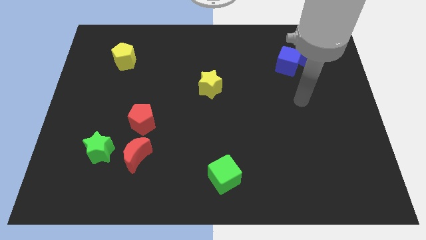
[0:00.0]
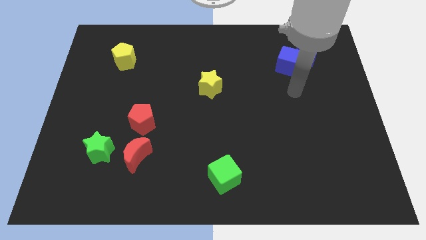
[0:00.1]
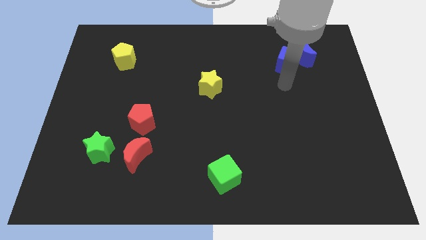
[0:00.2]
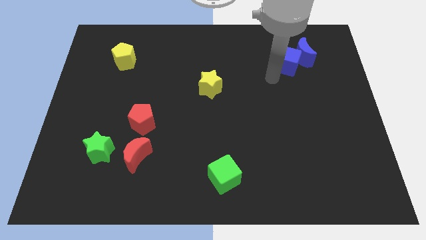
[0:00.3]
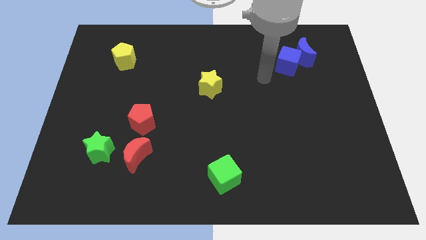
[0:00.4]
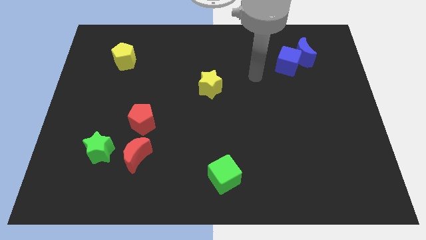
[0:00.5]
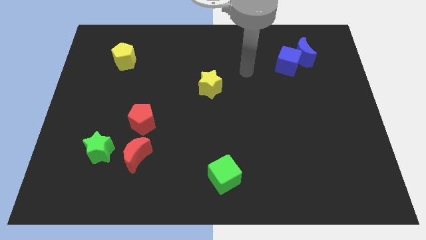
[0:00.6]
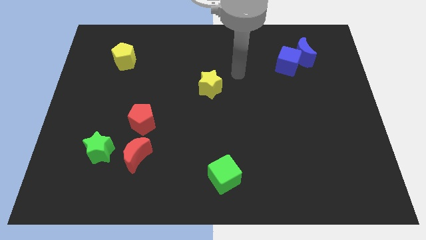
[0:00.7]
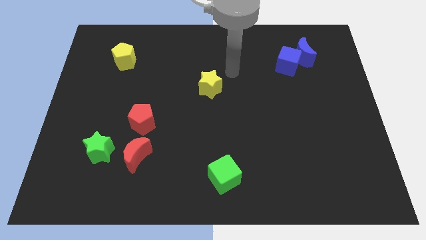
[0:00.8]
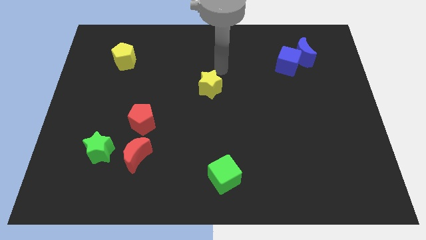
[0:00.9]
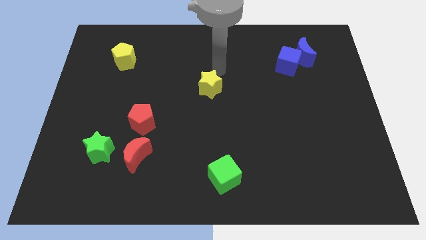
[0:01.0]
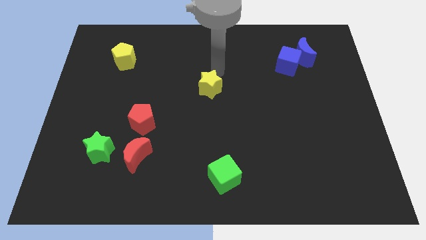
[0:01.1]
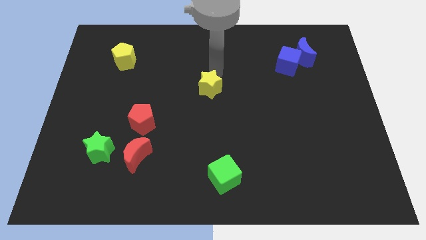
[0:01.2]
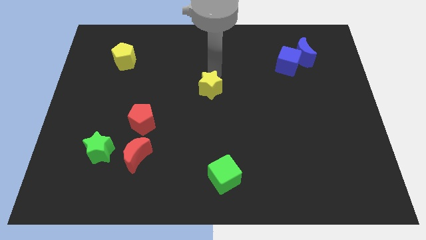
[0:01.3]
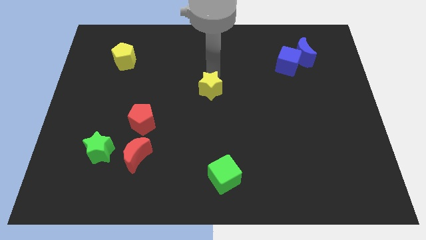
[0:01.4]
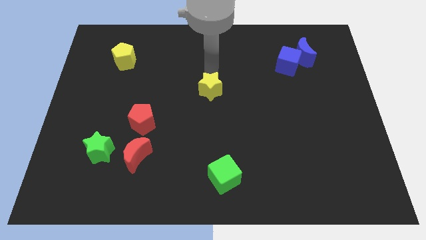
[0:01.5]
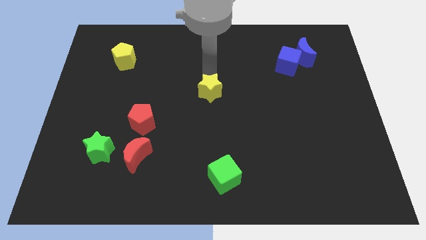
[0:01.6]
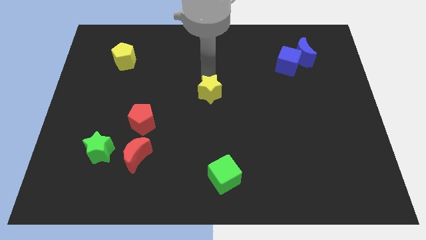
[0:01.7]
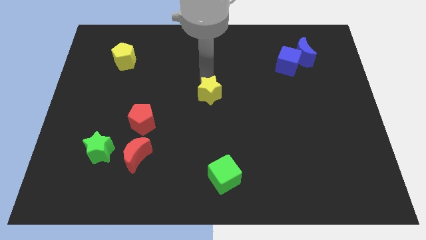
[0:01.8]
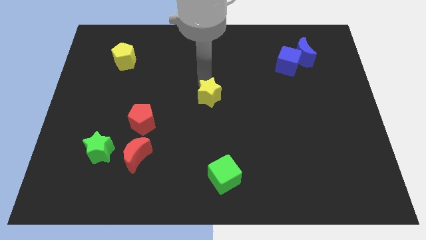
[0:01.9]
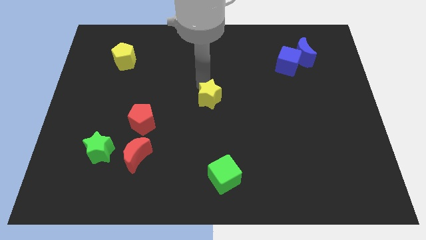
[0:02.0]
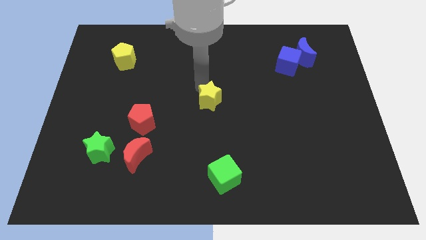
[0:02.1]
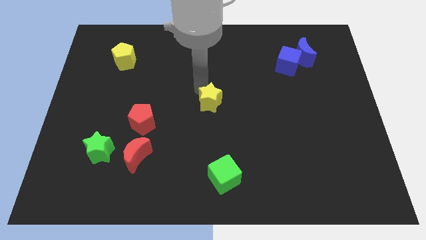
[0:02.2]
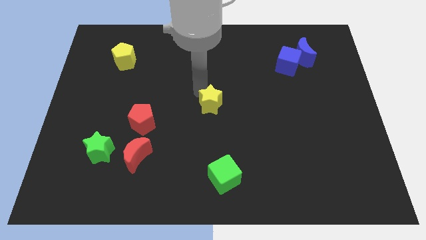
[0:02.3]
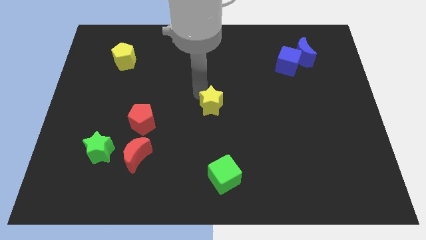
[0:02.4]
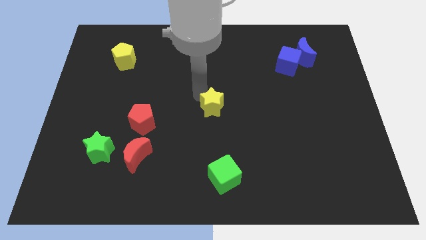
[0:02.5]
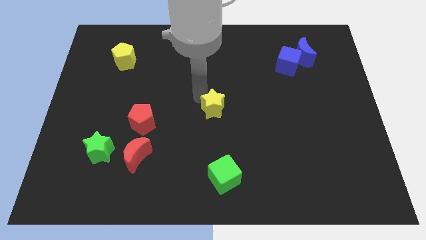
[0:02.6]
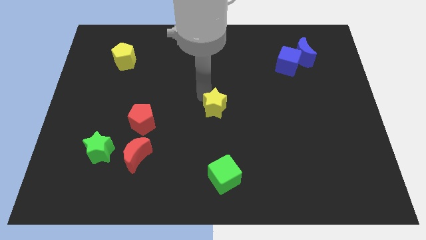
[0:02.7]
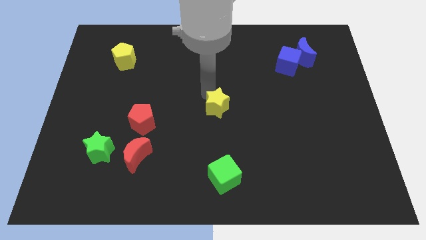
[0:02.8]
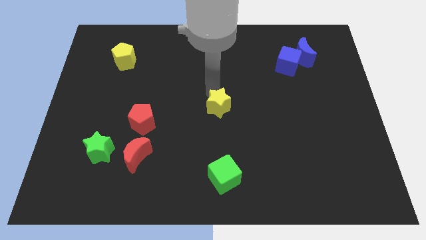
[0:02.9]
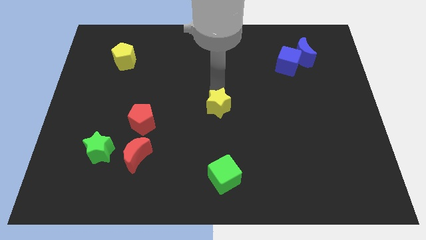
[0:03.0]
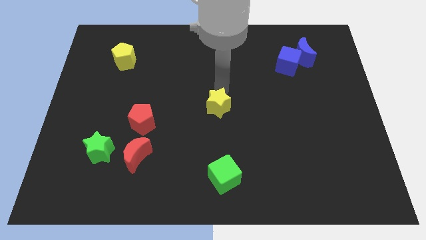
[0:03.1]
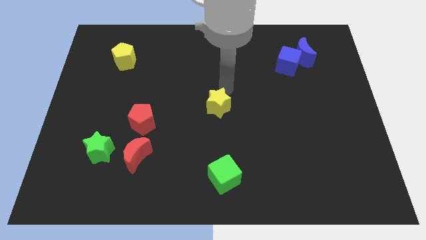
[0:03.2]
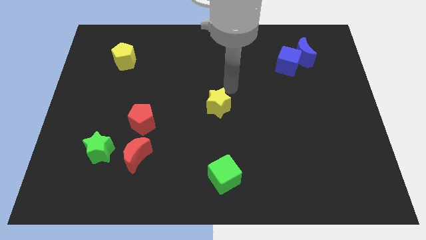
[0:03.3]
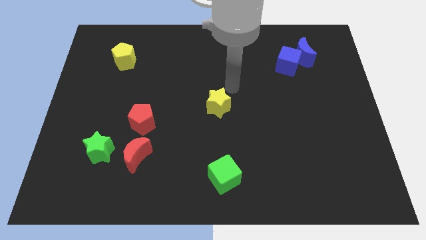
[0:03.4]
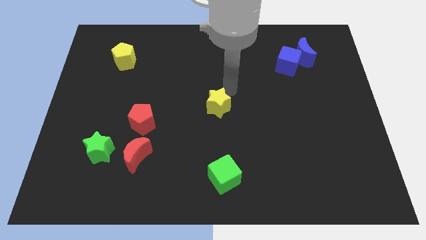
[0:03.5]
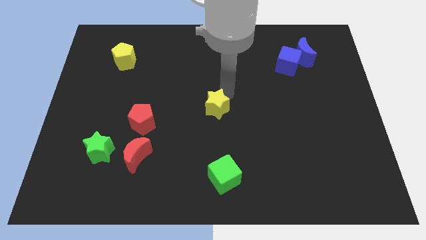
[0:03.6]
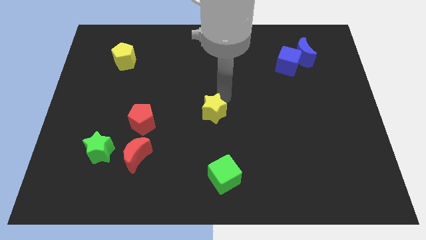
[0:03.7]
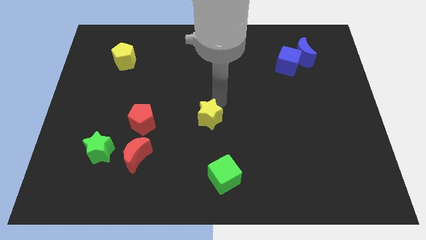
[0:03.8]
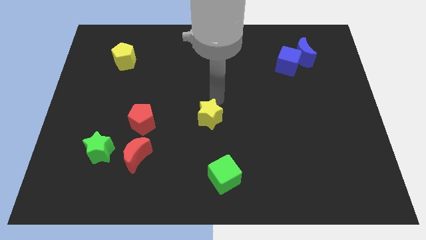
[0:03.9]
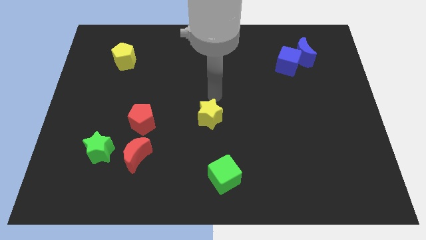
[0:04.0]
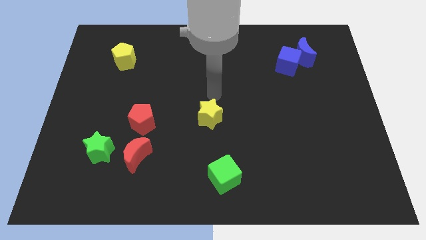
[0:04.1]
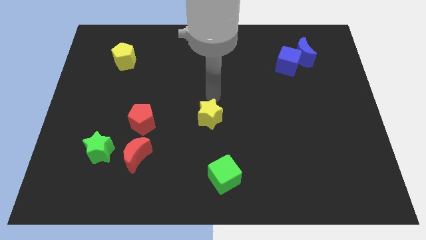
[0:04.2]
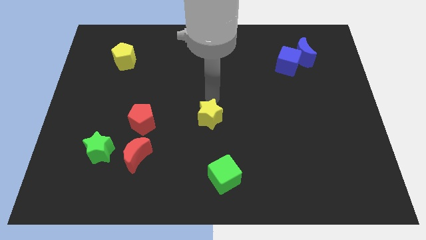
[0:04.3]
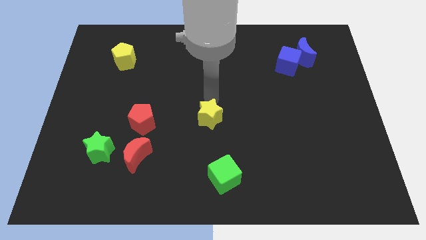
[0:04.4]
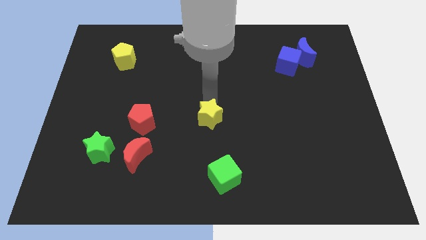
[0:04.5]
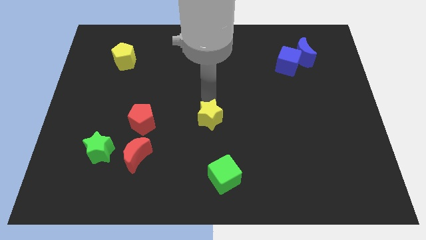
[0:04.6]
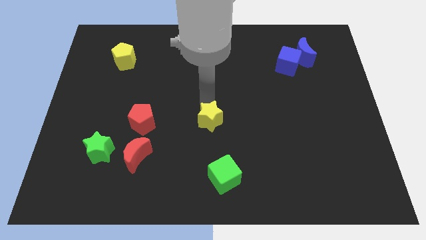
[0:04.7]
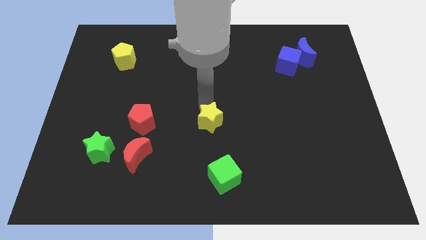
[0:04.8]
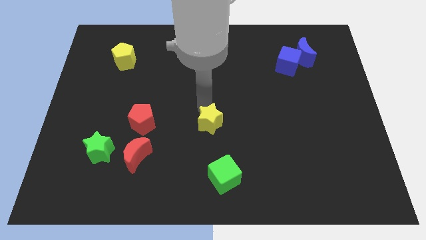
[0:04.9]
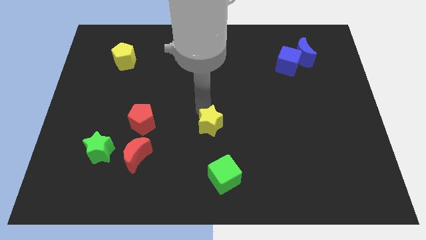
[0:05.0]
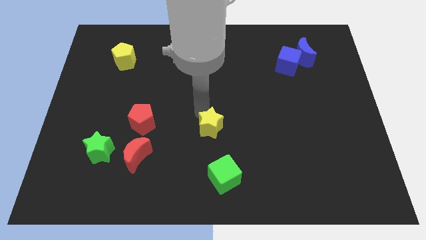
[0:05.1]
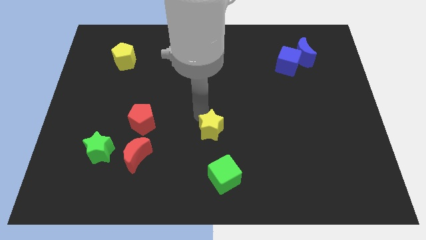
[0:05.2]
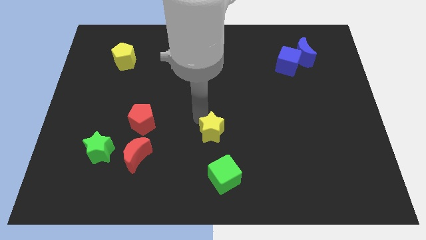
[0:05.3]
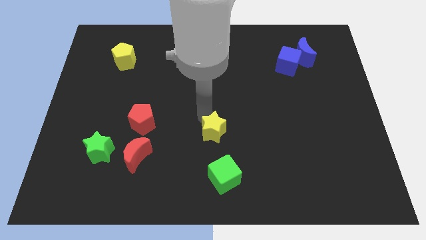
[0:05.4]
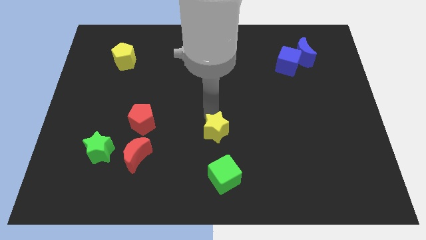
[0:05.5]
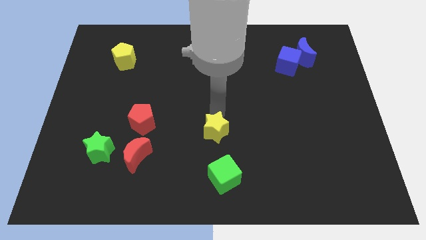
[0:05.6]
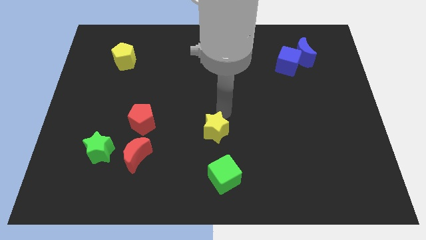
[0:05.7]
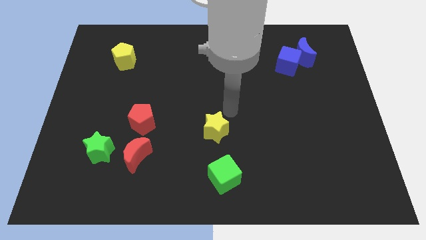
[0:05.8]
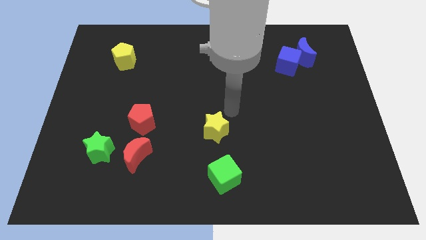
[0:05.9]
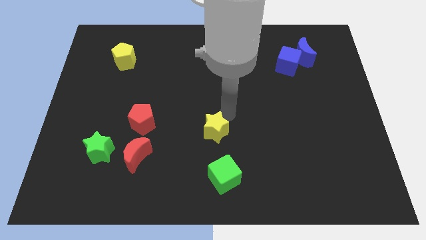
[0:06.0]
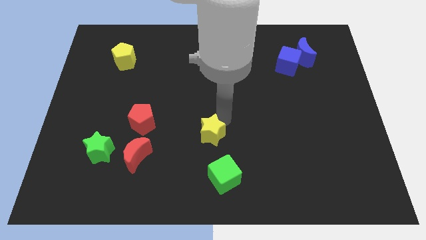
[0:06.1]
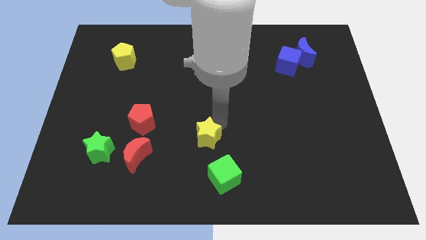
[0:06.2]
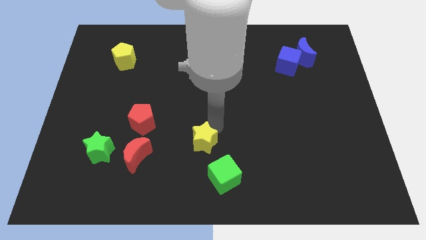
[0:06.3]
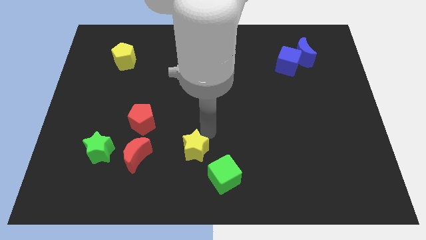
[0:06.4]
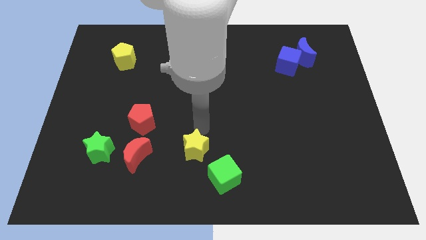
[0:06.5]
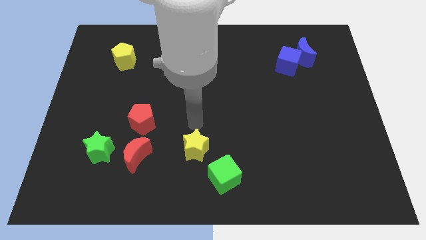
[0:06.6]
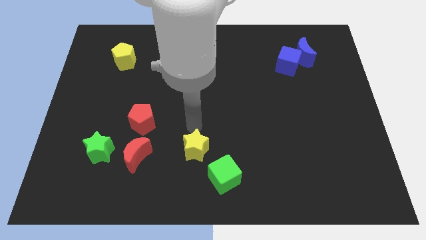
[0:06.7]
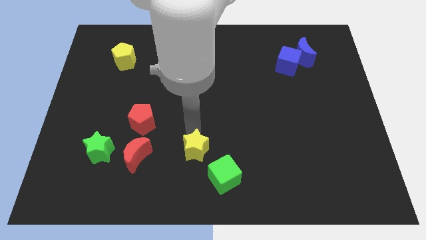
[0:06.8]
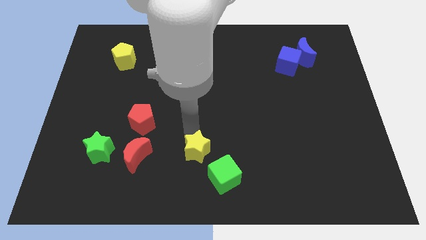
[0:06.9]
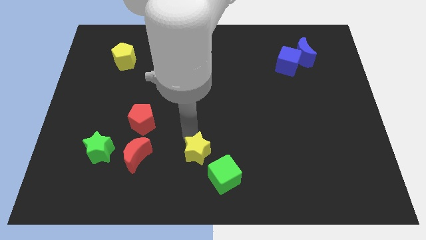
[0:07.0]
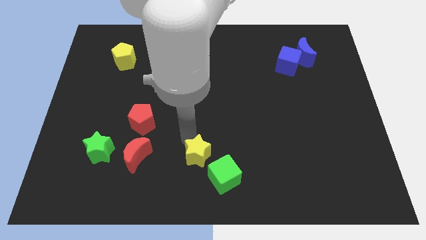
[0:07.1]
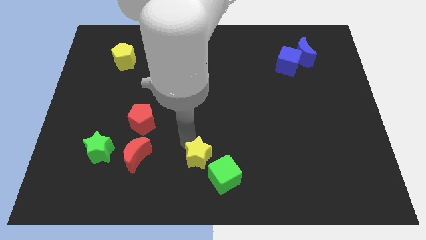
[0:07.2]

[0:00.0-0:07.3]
put the yellow star to the bottom

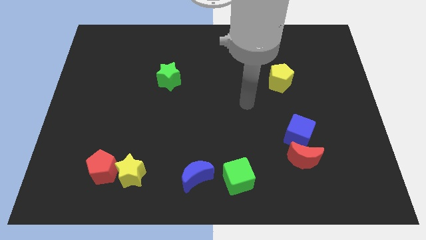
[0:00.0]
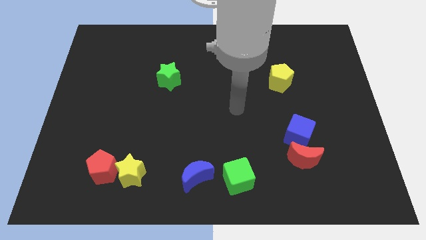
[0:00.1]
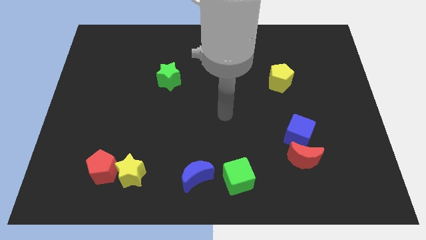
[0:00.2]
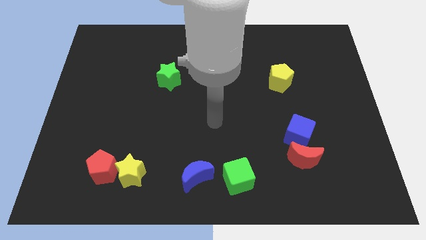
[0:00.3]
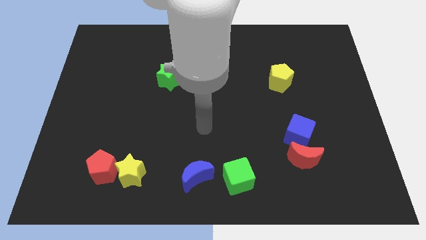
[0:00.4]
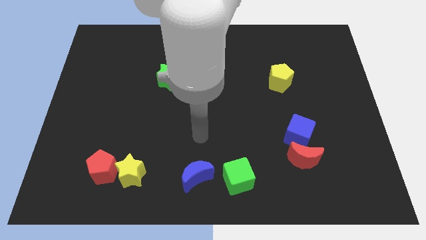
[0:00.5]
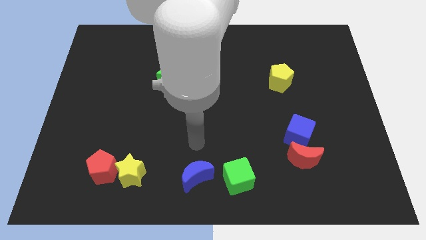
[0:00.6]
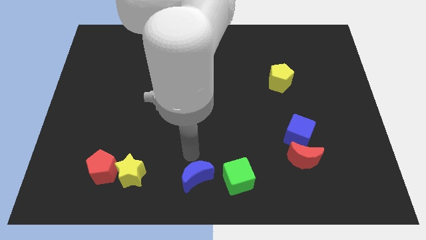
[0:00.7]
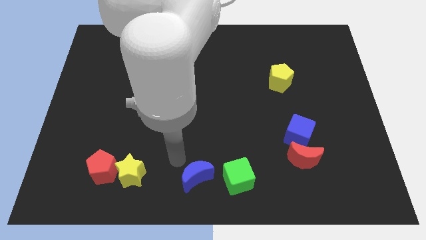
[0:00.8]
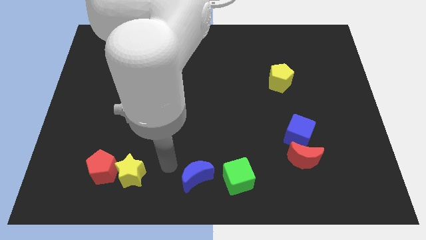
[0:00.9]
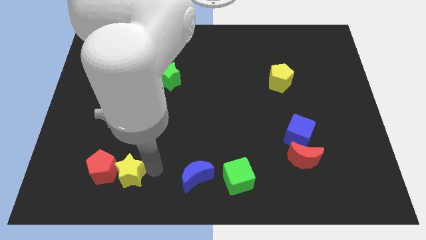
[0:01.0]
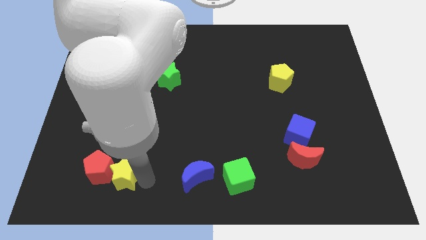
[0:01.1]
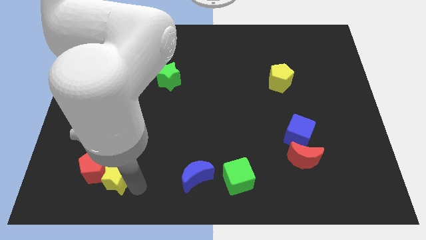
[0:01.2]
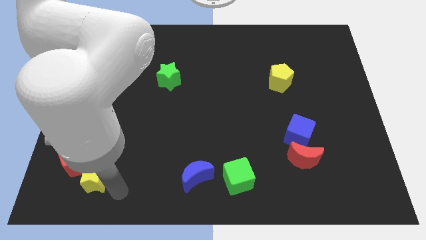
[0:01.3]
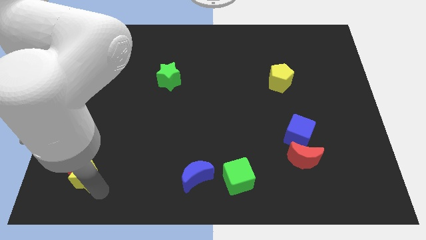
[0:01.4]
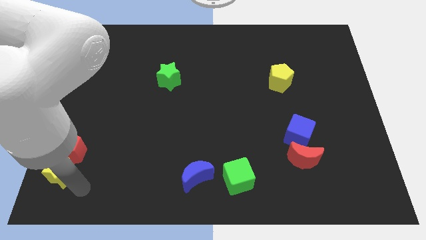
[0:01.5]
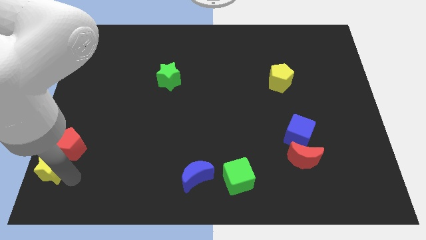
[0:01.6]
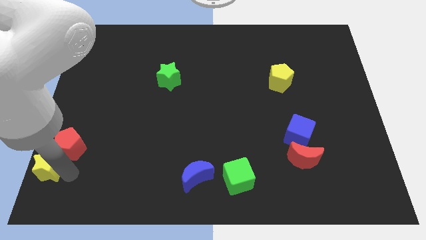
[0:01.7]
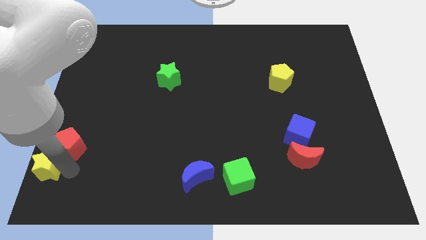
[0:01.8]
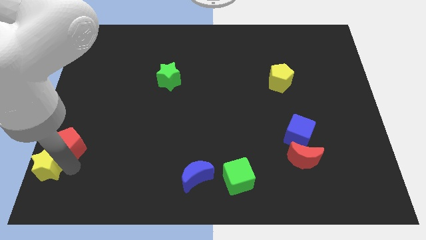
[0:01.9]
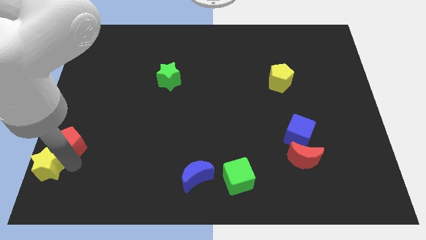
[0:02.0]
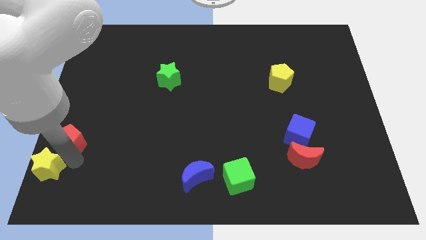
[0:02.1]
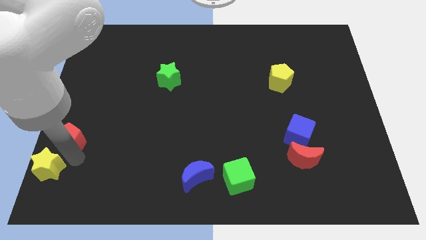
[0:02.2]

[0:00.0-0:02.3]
slide the red pentagon to the left side of the board
